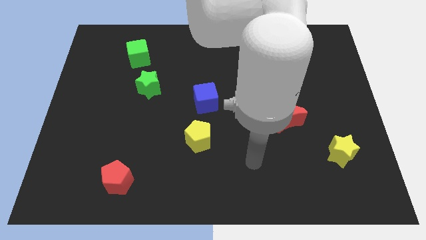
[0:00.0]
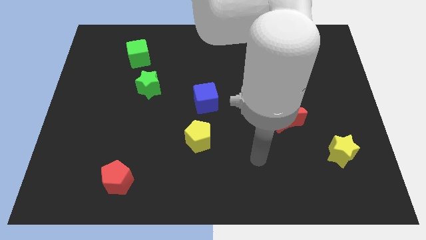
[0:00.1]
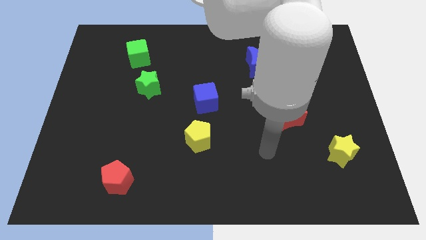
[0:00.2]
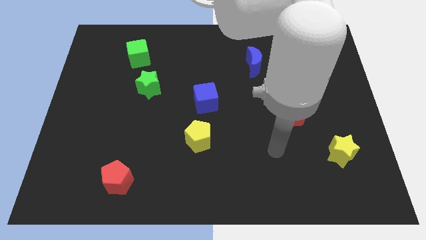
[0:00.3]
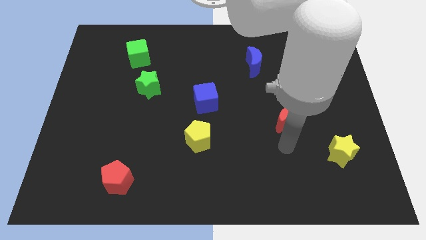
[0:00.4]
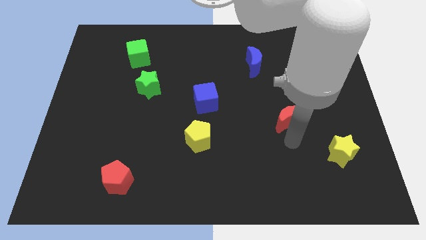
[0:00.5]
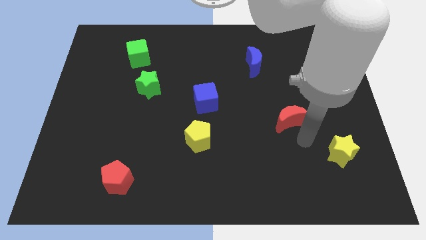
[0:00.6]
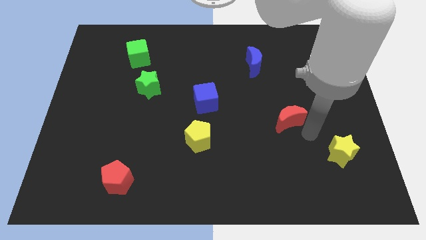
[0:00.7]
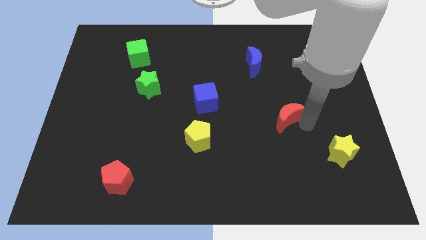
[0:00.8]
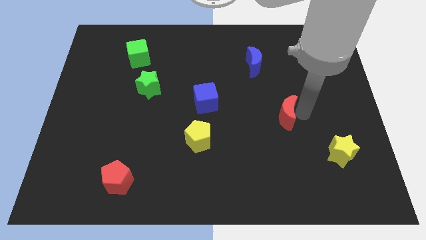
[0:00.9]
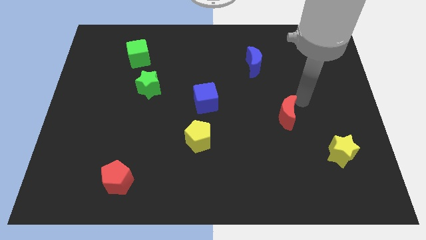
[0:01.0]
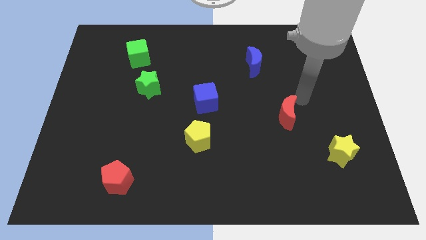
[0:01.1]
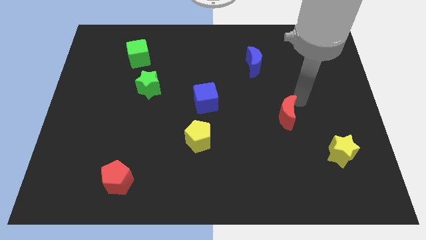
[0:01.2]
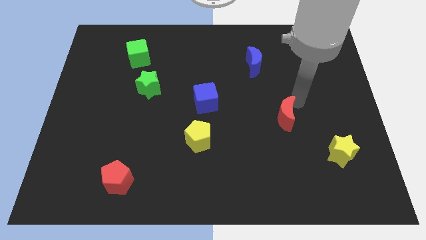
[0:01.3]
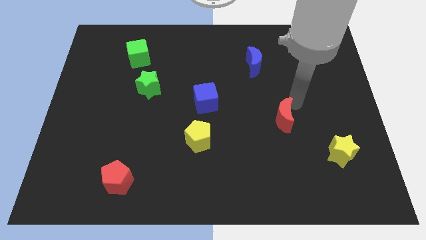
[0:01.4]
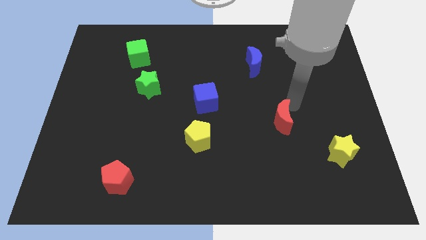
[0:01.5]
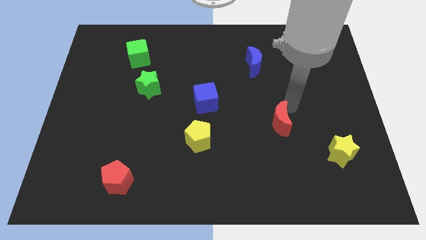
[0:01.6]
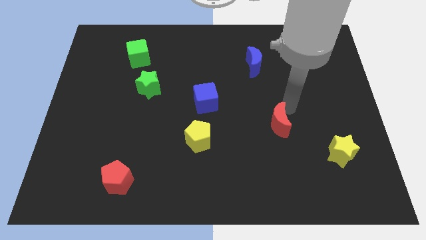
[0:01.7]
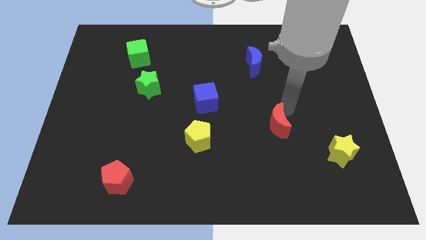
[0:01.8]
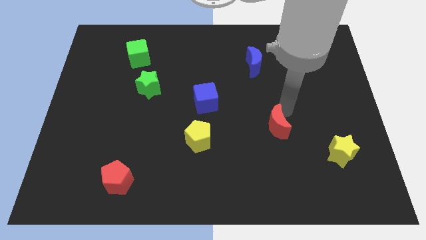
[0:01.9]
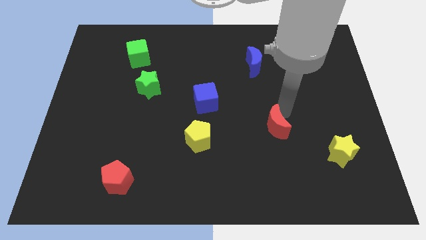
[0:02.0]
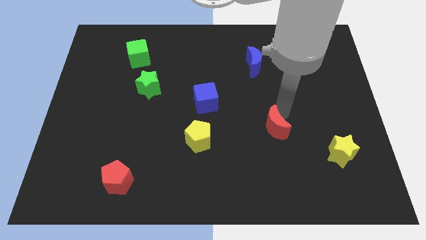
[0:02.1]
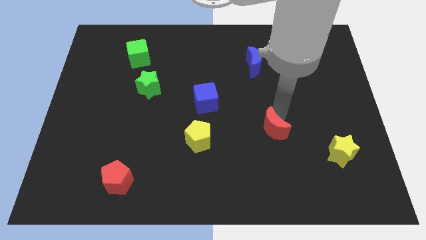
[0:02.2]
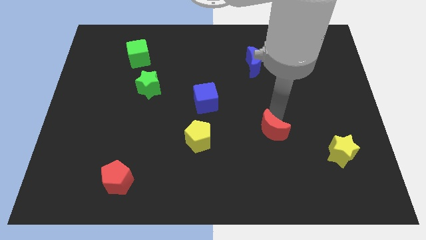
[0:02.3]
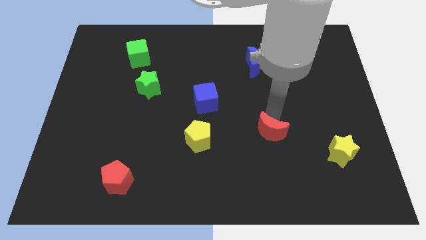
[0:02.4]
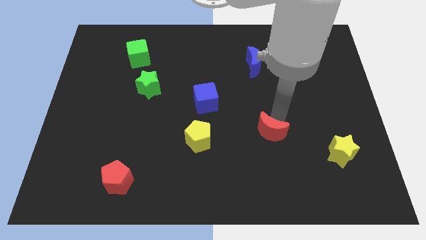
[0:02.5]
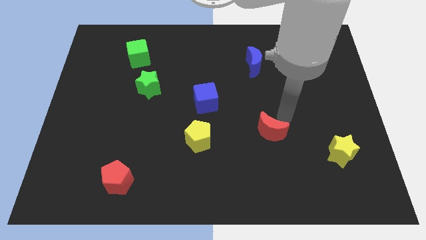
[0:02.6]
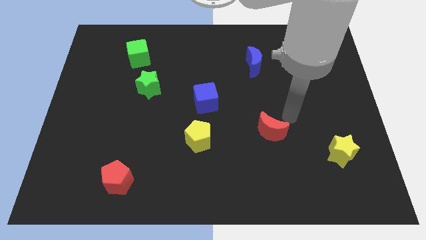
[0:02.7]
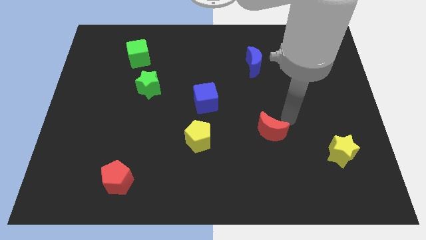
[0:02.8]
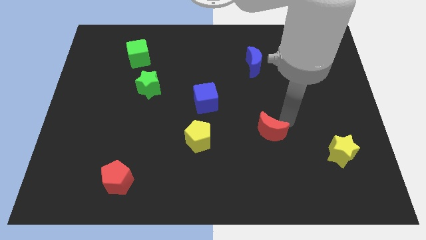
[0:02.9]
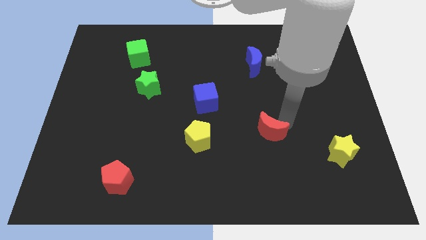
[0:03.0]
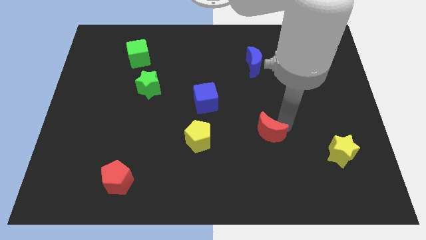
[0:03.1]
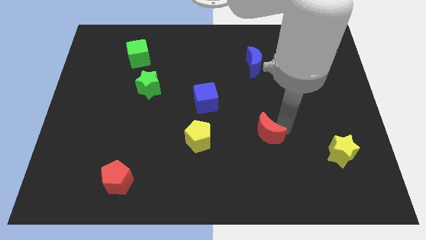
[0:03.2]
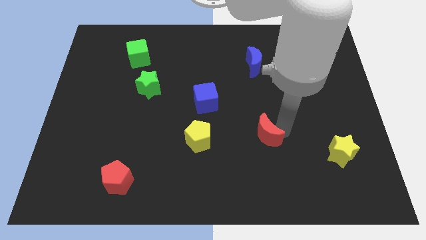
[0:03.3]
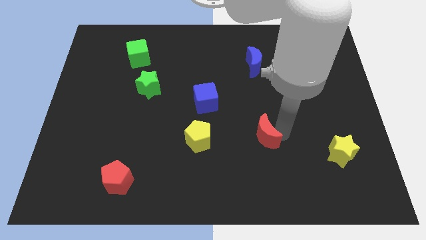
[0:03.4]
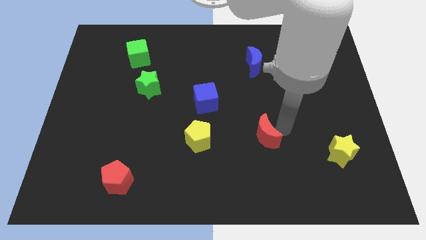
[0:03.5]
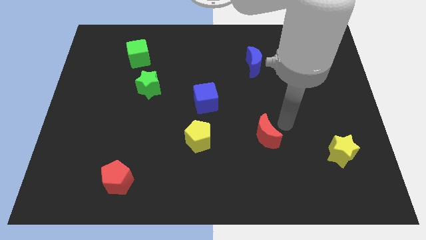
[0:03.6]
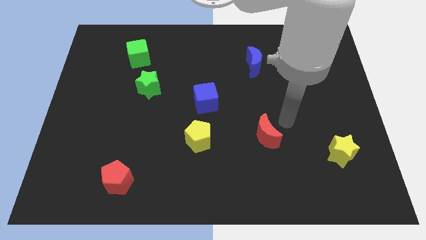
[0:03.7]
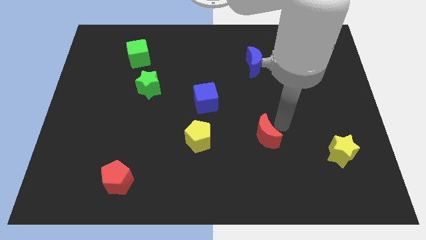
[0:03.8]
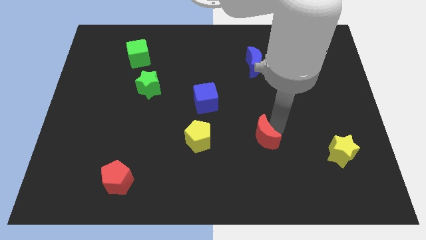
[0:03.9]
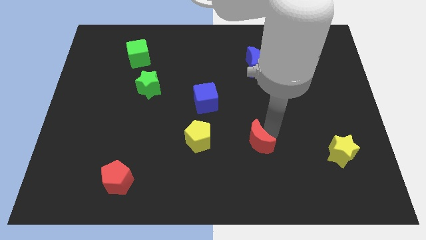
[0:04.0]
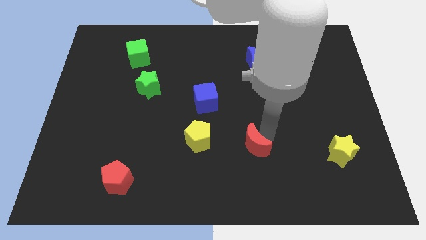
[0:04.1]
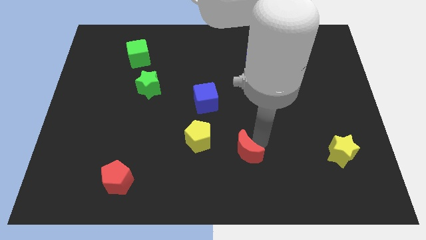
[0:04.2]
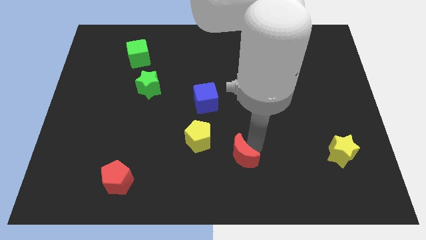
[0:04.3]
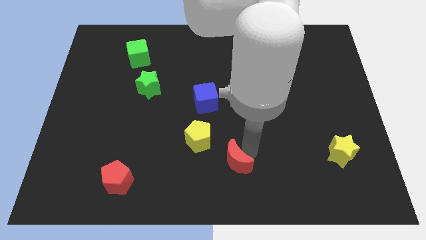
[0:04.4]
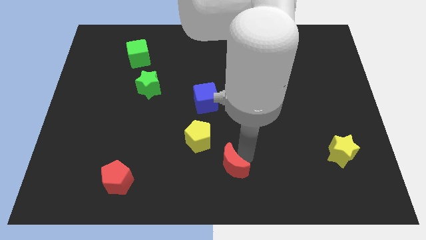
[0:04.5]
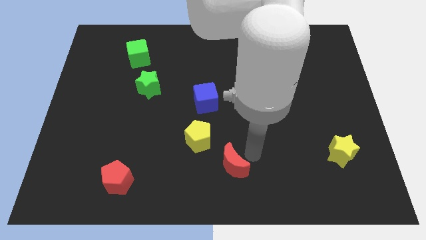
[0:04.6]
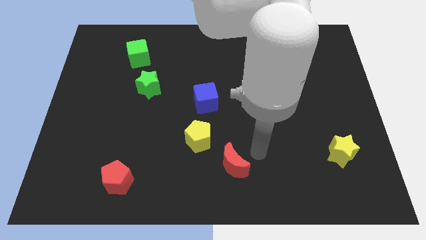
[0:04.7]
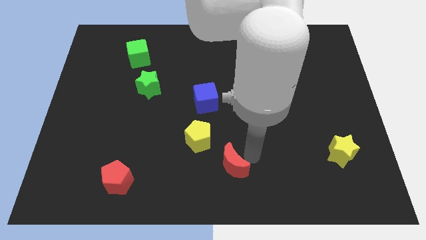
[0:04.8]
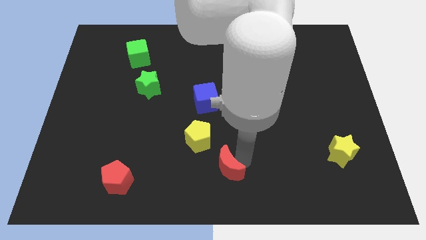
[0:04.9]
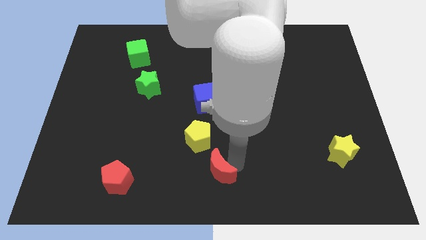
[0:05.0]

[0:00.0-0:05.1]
push the red moon to the bottom of the yellow pentagon

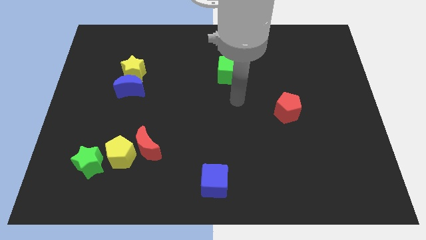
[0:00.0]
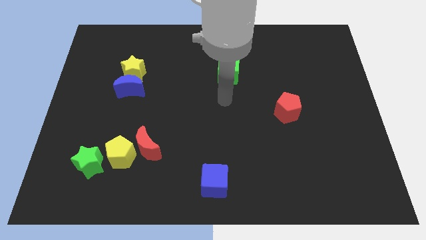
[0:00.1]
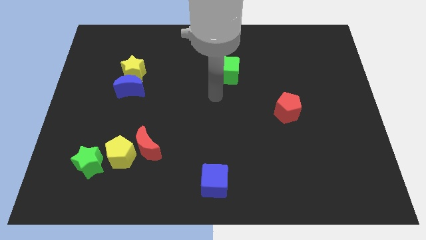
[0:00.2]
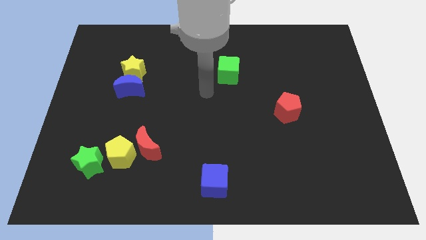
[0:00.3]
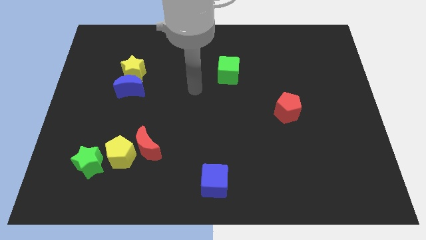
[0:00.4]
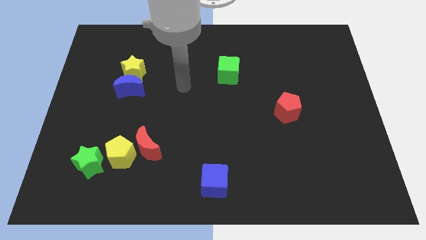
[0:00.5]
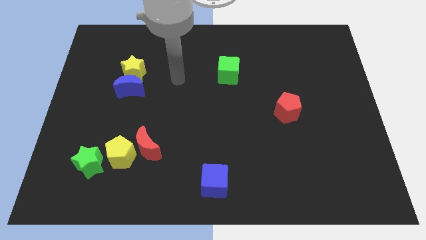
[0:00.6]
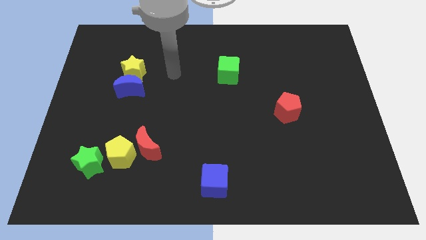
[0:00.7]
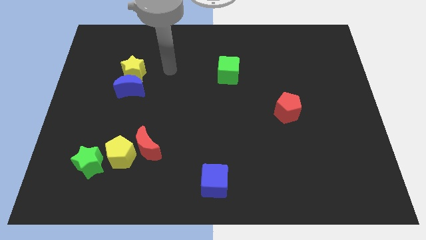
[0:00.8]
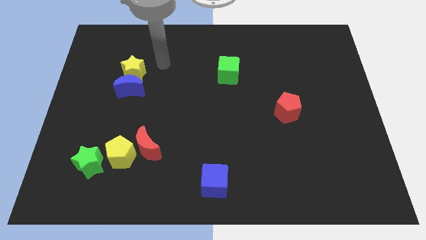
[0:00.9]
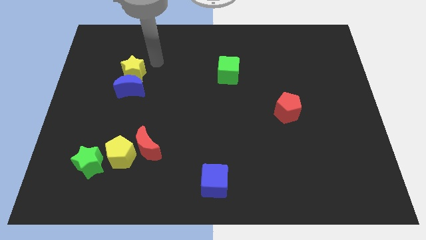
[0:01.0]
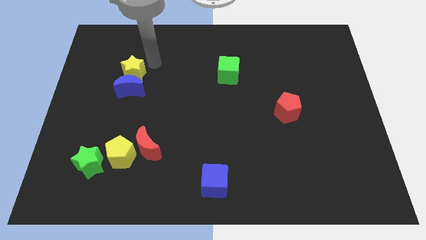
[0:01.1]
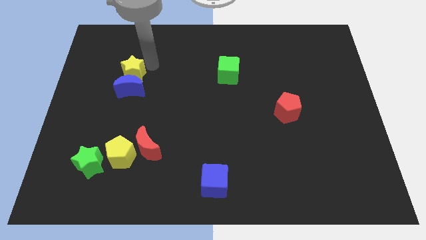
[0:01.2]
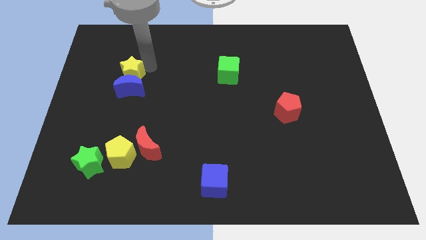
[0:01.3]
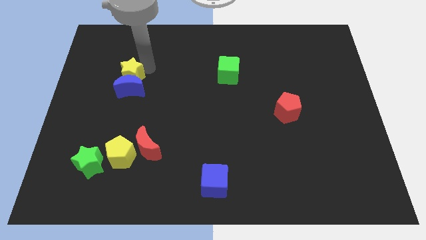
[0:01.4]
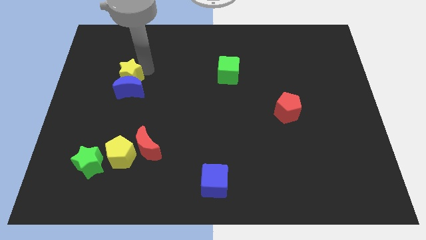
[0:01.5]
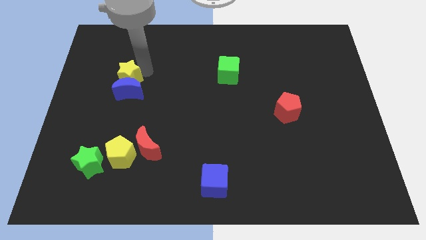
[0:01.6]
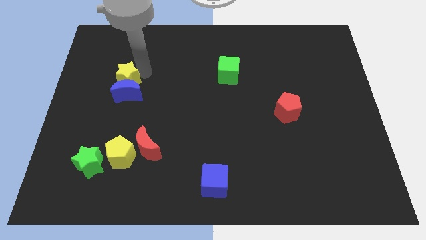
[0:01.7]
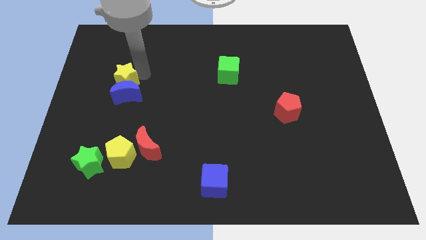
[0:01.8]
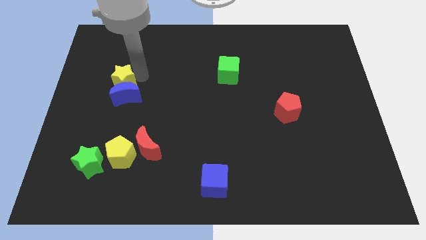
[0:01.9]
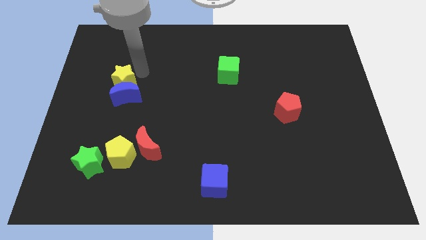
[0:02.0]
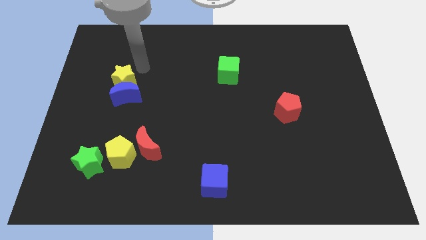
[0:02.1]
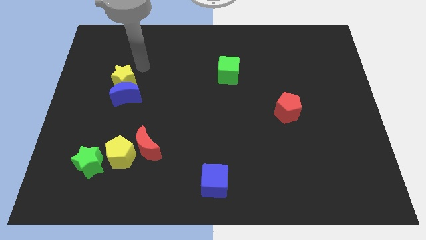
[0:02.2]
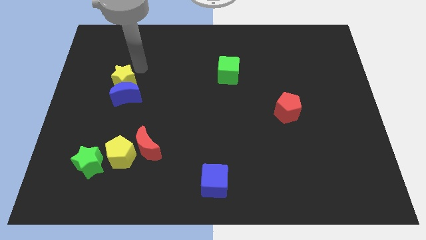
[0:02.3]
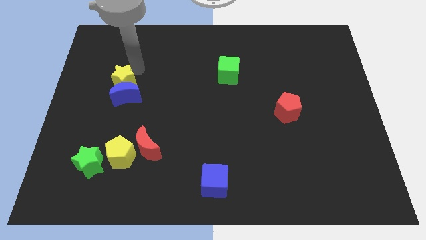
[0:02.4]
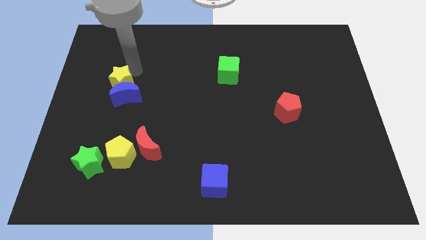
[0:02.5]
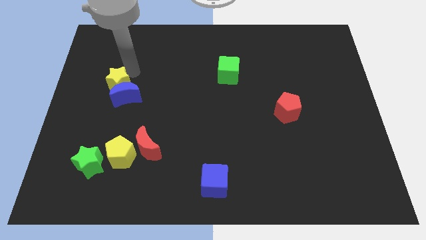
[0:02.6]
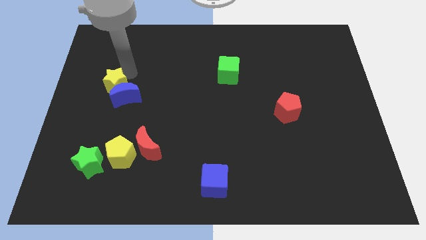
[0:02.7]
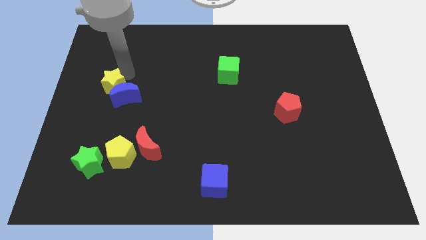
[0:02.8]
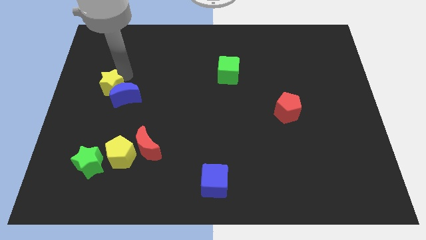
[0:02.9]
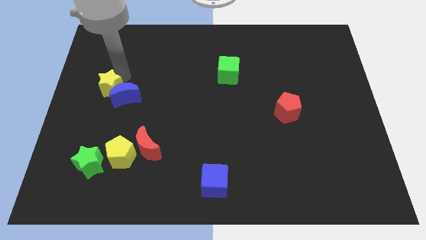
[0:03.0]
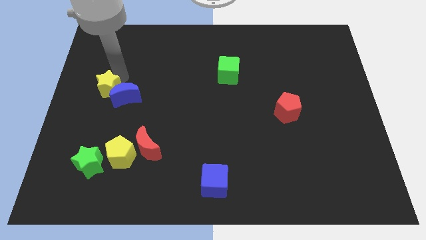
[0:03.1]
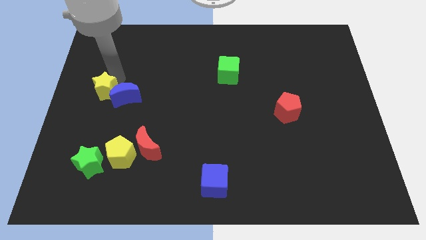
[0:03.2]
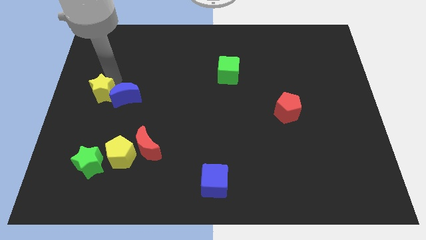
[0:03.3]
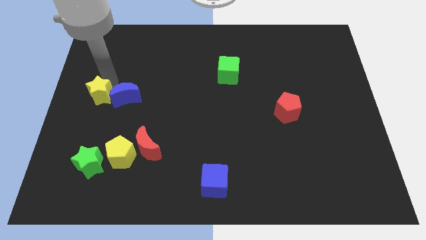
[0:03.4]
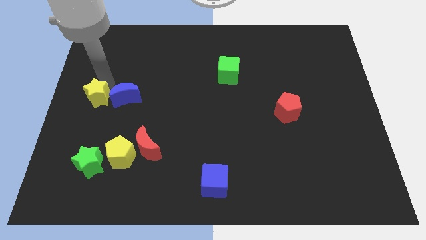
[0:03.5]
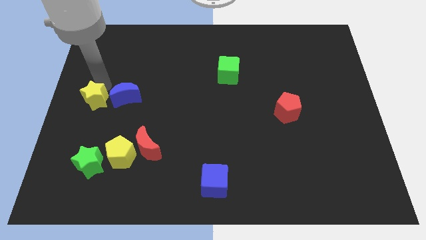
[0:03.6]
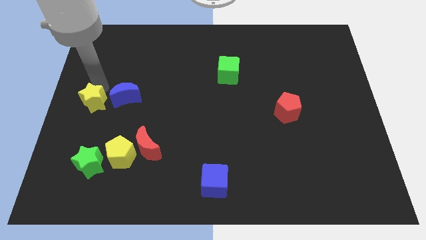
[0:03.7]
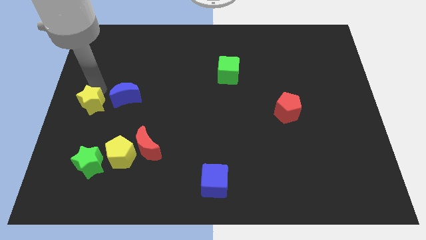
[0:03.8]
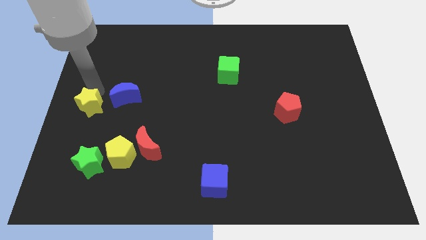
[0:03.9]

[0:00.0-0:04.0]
push the yellow star above the green star
